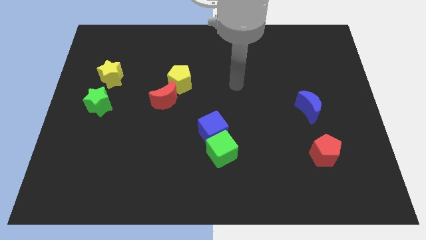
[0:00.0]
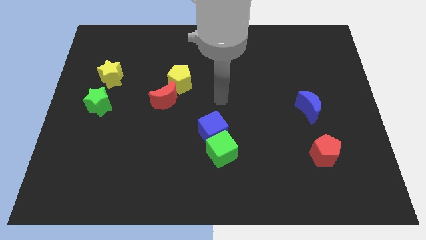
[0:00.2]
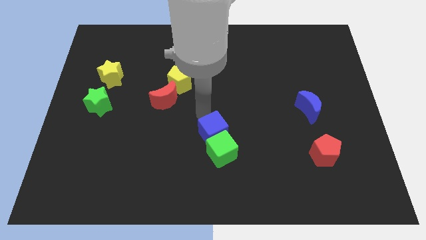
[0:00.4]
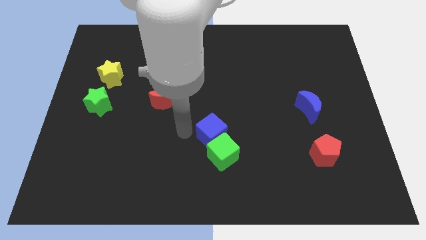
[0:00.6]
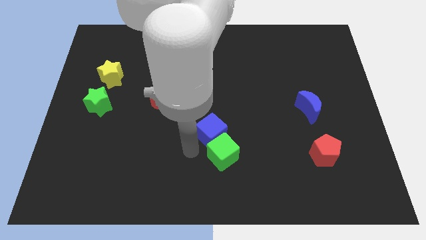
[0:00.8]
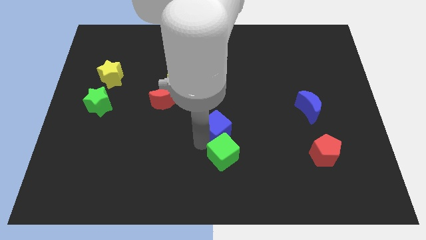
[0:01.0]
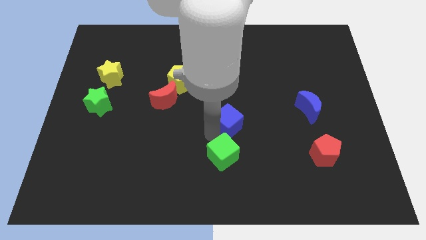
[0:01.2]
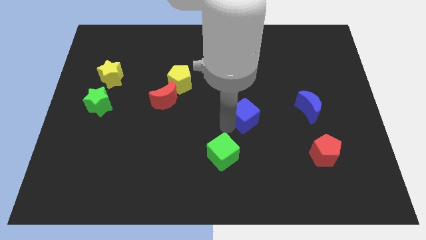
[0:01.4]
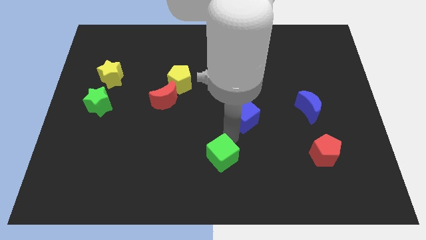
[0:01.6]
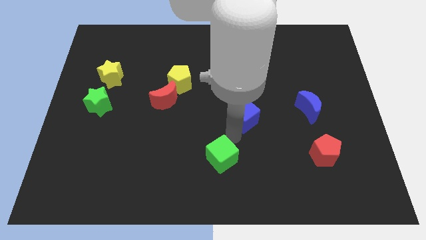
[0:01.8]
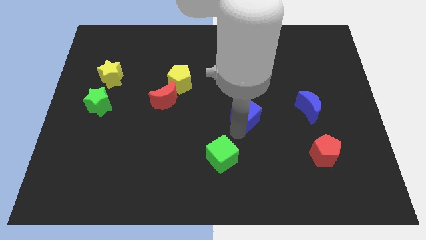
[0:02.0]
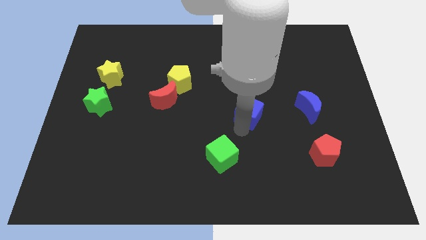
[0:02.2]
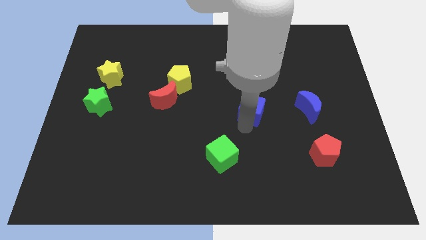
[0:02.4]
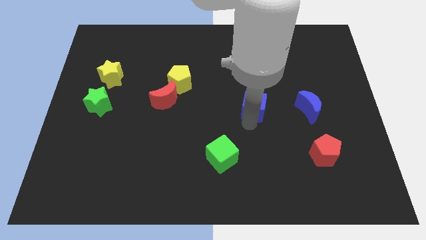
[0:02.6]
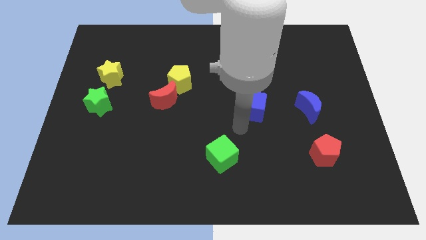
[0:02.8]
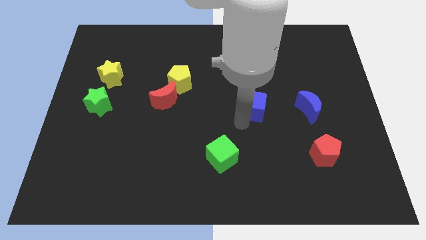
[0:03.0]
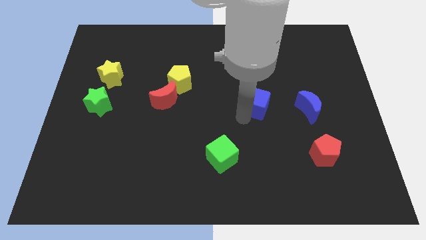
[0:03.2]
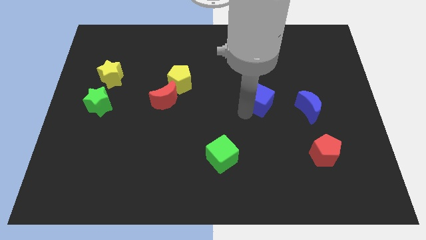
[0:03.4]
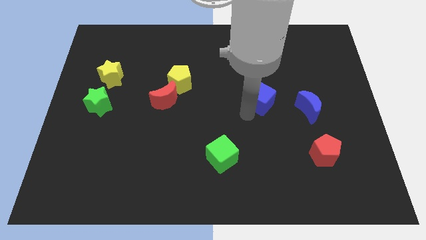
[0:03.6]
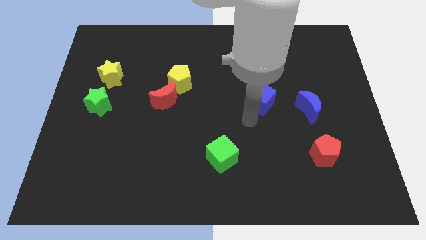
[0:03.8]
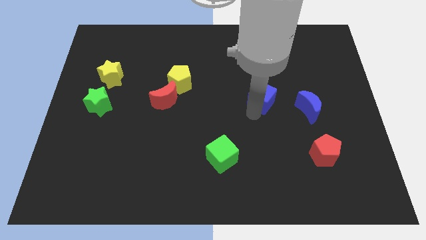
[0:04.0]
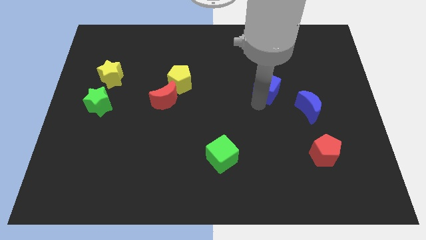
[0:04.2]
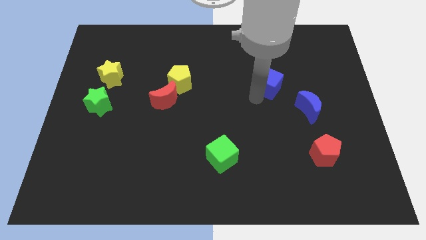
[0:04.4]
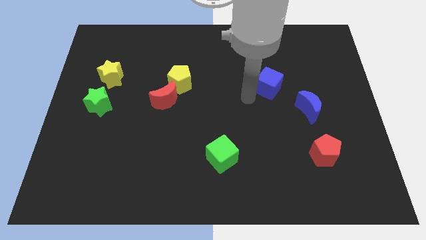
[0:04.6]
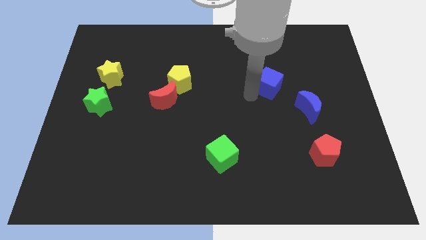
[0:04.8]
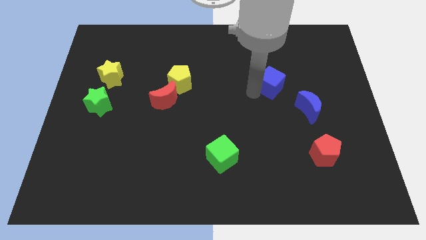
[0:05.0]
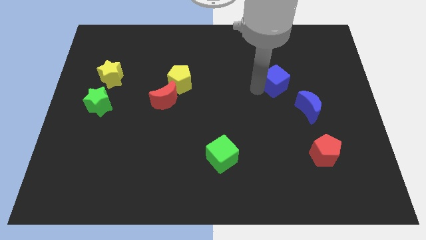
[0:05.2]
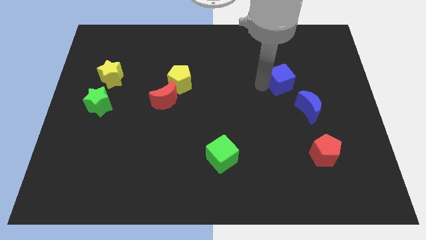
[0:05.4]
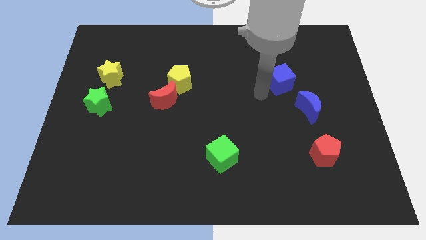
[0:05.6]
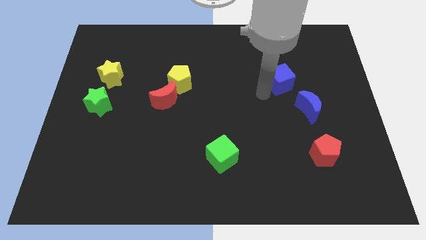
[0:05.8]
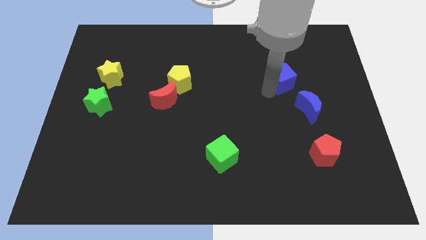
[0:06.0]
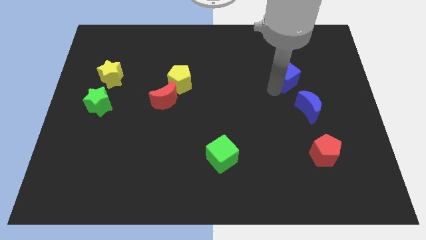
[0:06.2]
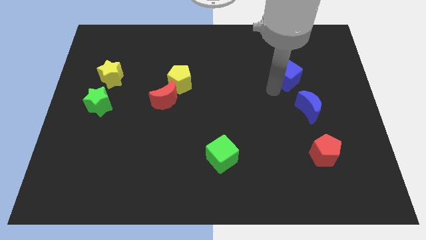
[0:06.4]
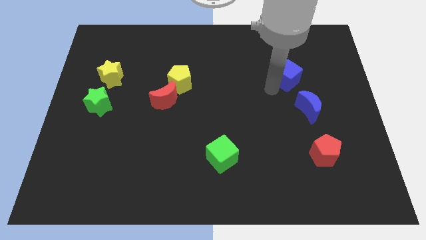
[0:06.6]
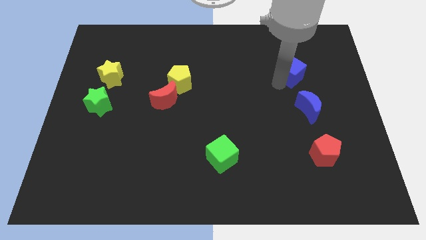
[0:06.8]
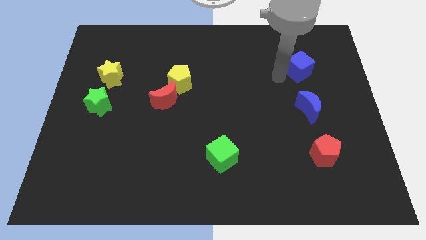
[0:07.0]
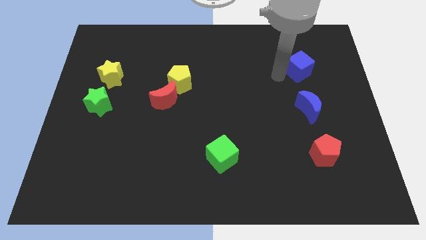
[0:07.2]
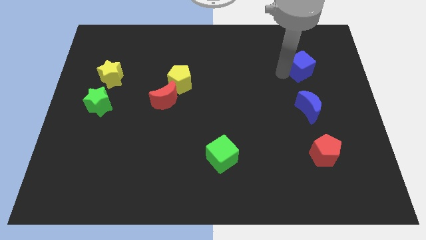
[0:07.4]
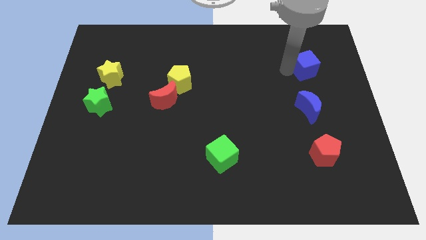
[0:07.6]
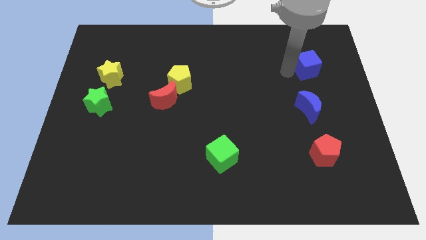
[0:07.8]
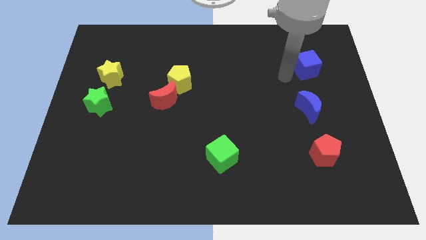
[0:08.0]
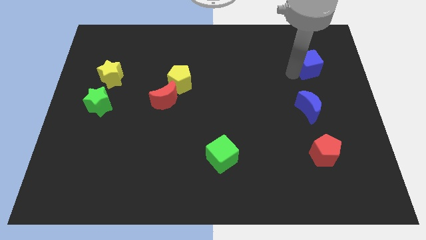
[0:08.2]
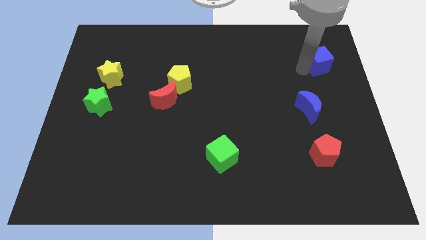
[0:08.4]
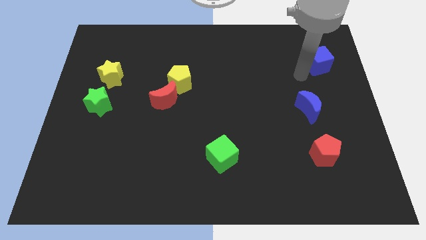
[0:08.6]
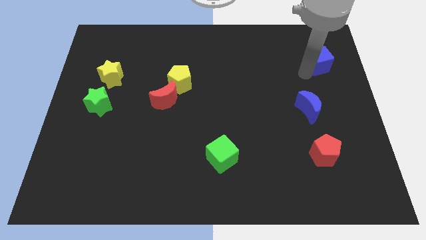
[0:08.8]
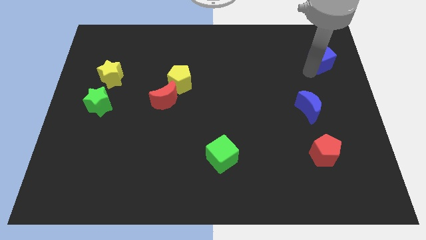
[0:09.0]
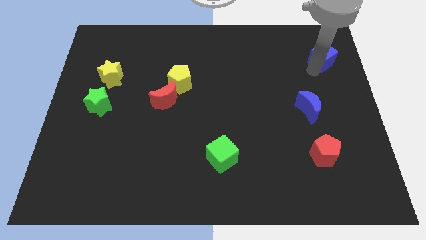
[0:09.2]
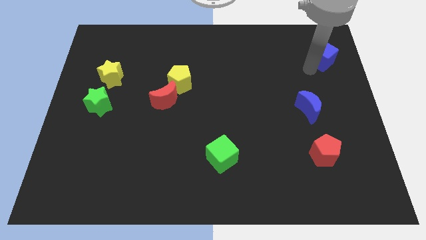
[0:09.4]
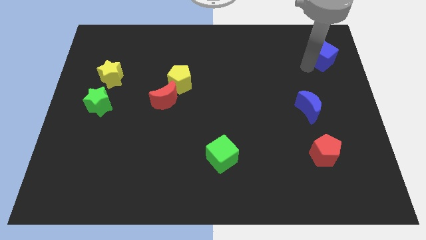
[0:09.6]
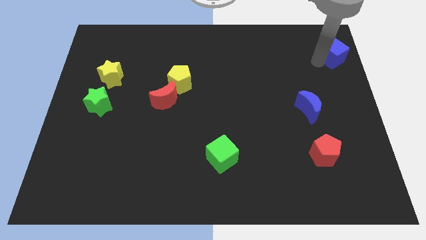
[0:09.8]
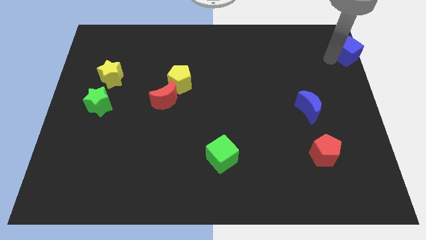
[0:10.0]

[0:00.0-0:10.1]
push the blue cube to the top right

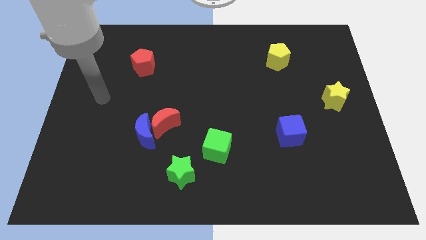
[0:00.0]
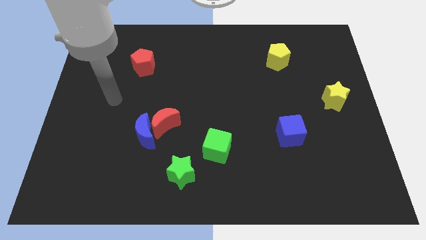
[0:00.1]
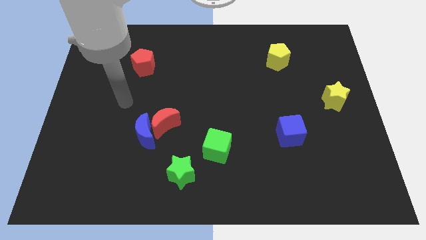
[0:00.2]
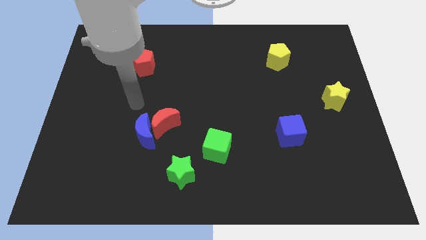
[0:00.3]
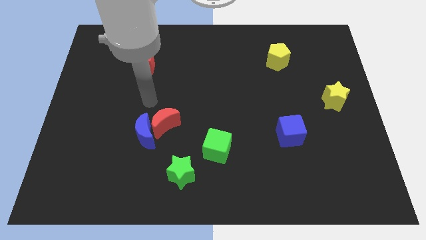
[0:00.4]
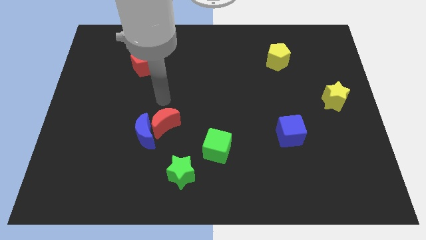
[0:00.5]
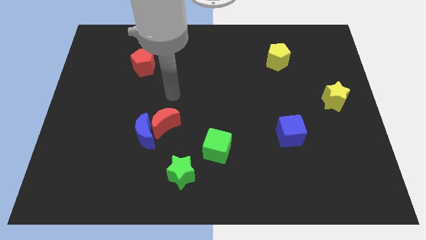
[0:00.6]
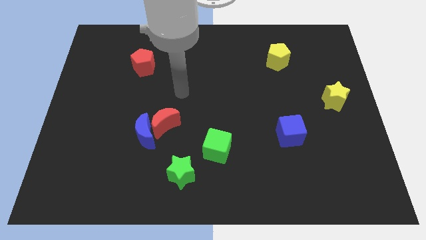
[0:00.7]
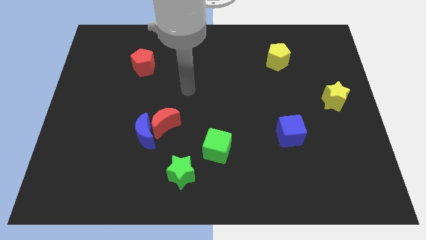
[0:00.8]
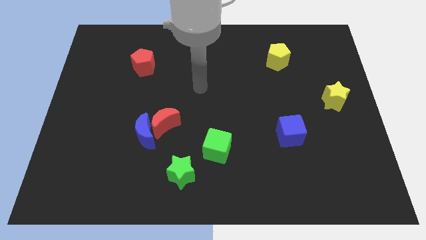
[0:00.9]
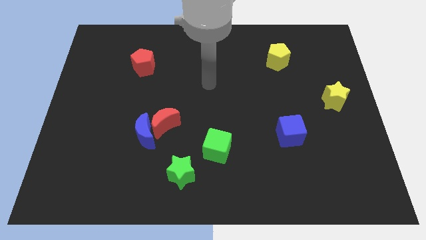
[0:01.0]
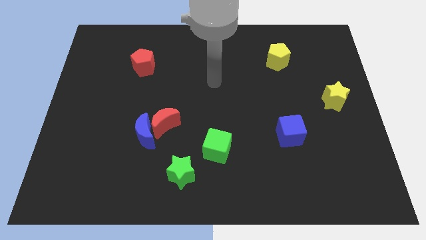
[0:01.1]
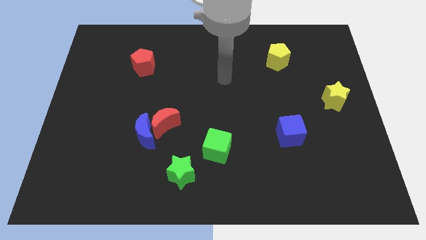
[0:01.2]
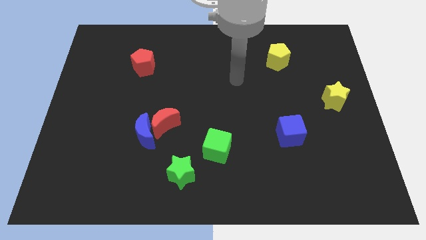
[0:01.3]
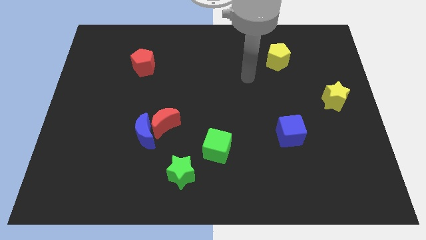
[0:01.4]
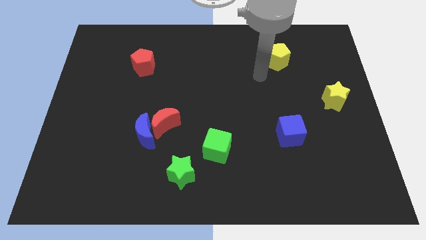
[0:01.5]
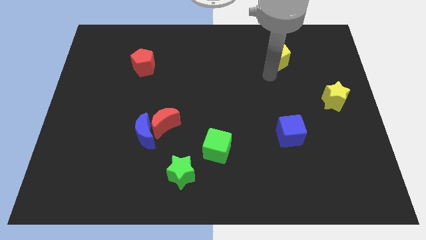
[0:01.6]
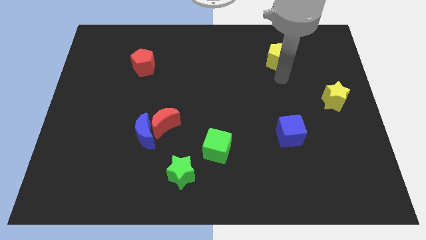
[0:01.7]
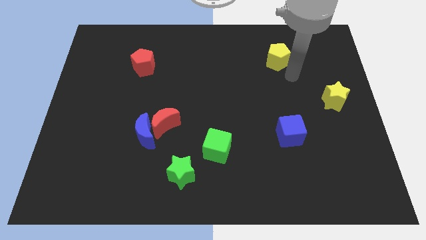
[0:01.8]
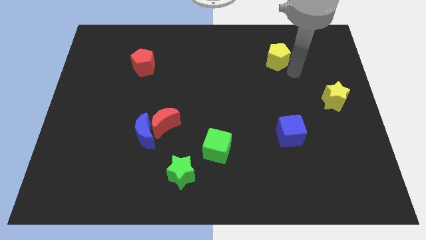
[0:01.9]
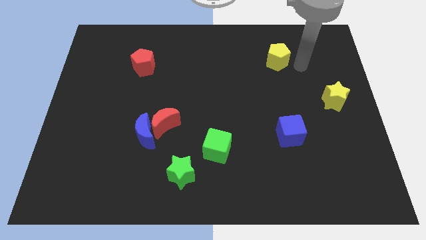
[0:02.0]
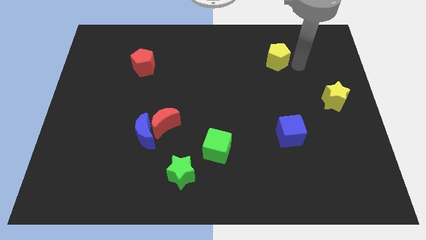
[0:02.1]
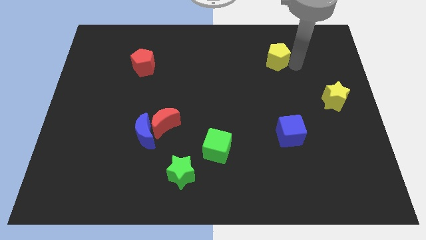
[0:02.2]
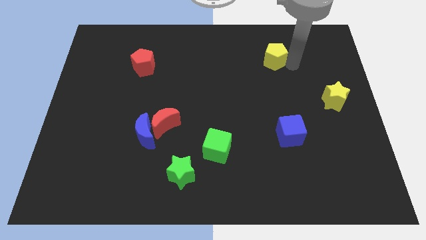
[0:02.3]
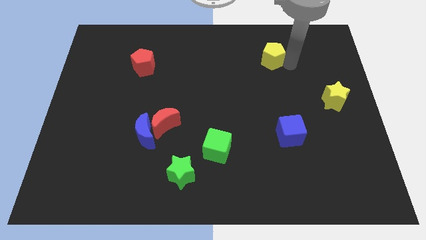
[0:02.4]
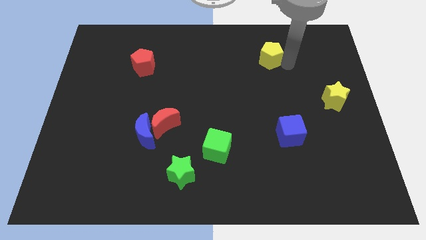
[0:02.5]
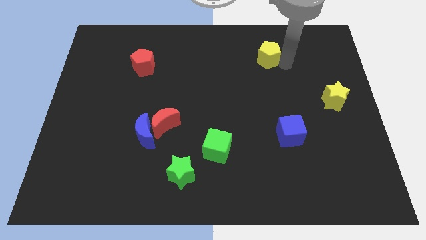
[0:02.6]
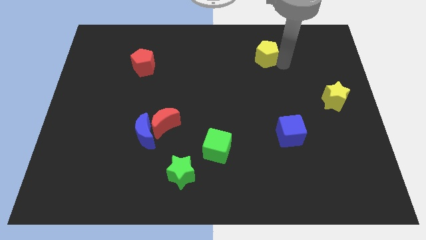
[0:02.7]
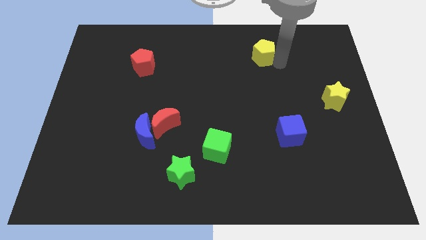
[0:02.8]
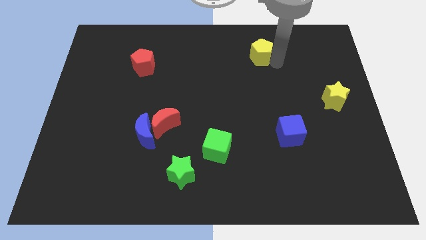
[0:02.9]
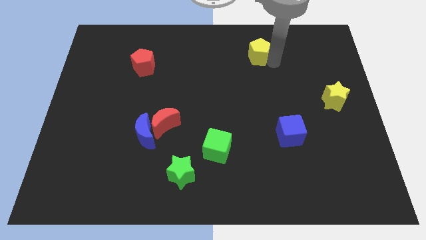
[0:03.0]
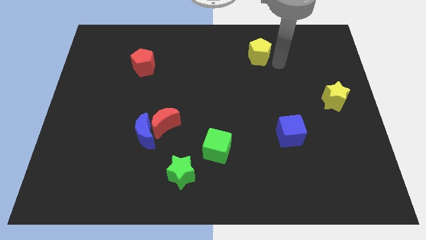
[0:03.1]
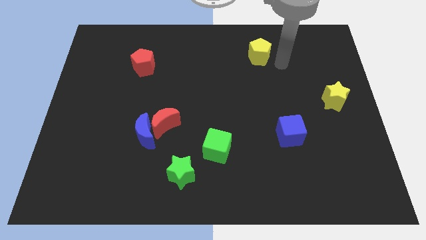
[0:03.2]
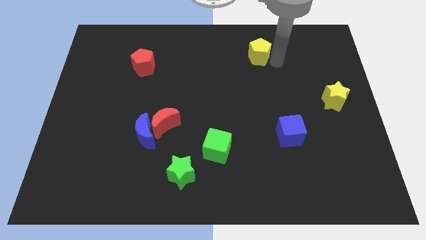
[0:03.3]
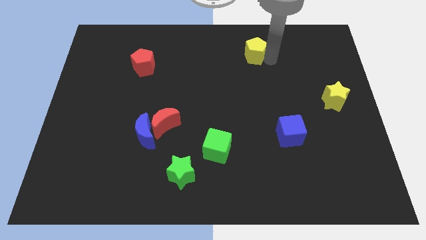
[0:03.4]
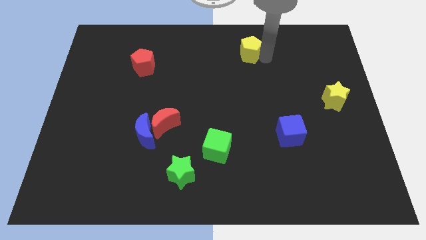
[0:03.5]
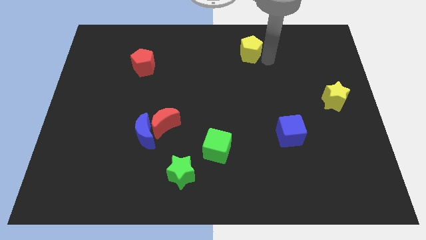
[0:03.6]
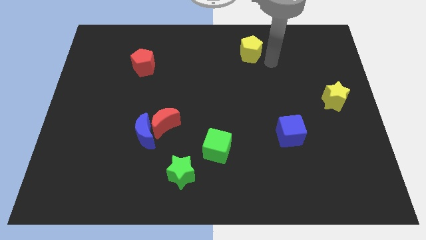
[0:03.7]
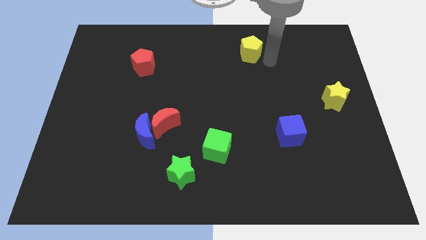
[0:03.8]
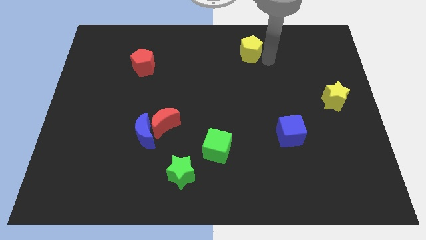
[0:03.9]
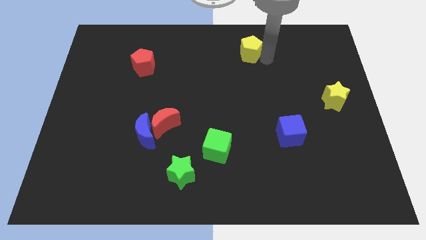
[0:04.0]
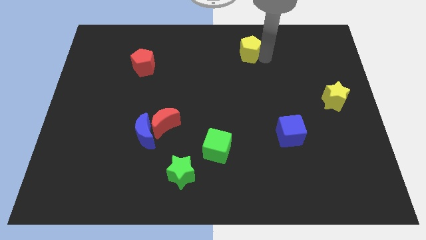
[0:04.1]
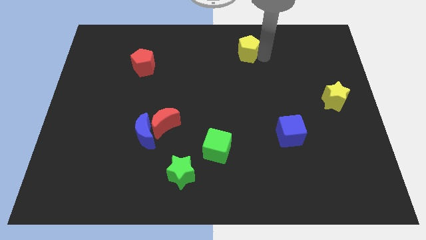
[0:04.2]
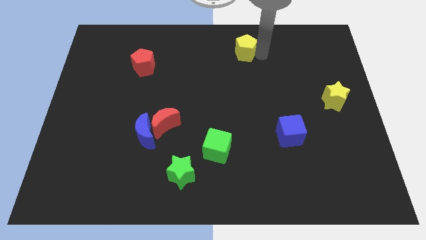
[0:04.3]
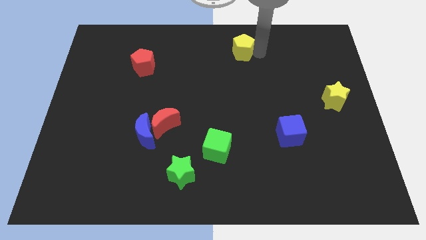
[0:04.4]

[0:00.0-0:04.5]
slide the yellow pentagon to the top side
